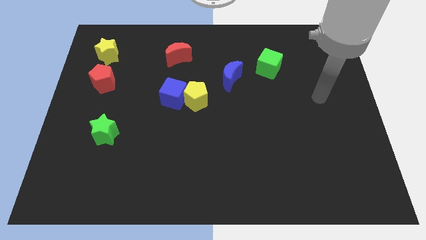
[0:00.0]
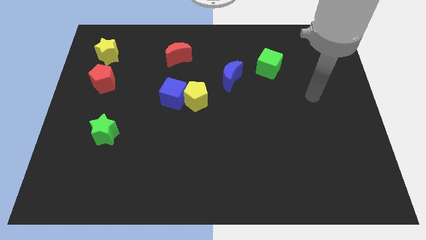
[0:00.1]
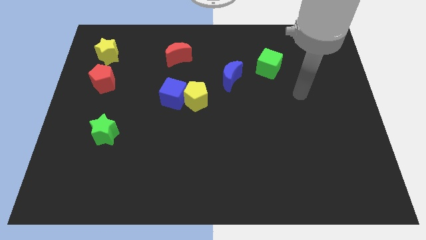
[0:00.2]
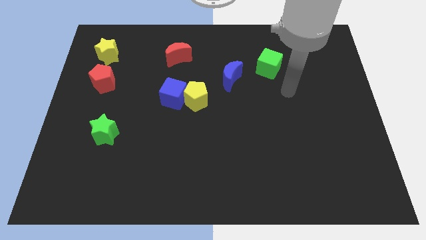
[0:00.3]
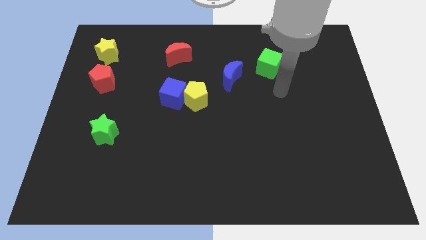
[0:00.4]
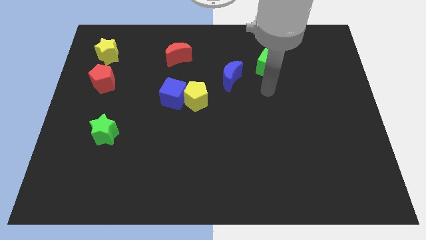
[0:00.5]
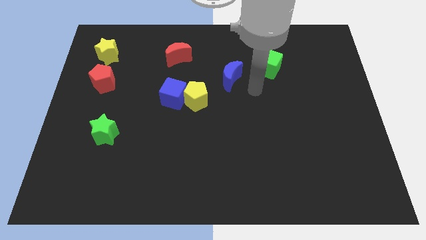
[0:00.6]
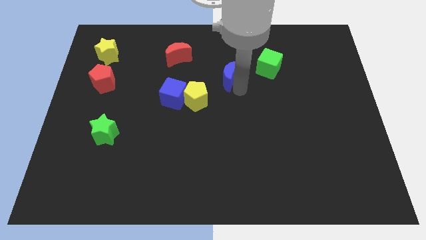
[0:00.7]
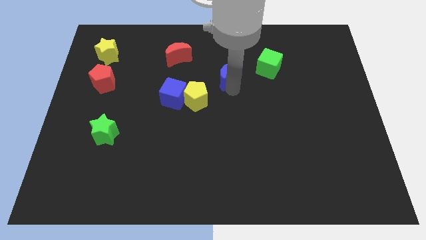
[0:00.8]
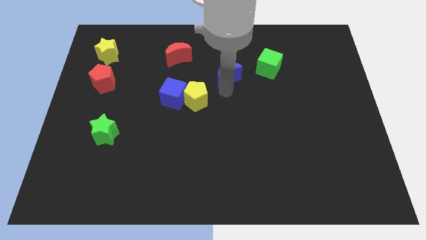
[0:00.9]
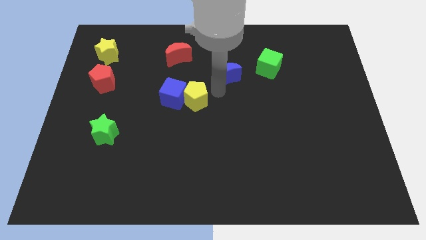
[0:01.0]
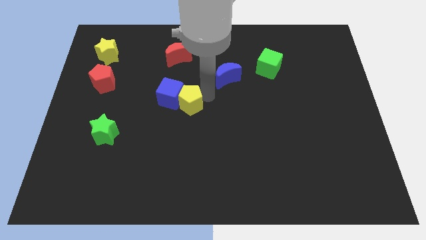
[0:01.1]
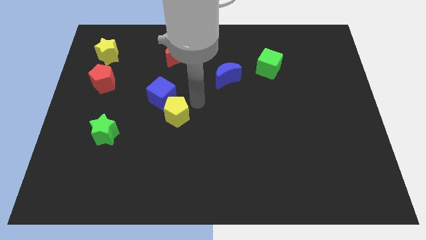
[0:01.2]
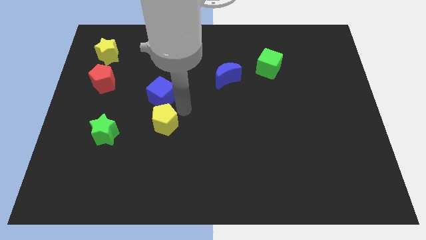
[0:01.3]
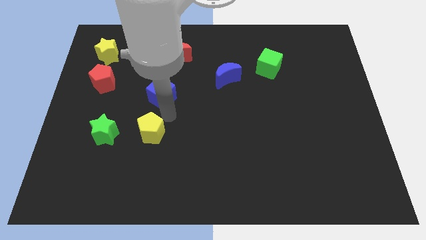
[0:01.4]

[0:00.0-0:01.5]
pull the blue cube apart from the yellow pentagon

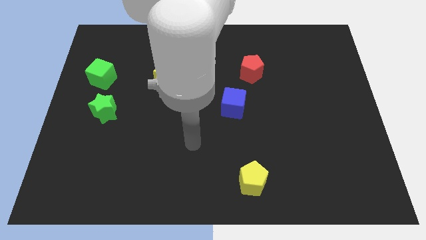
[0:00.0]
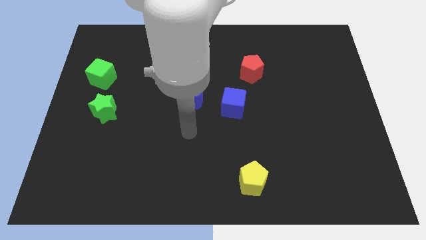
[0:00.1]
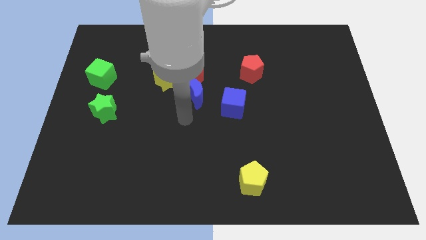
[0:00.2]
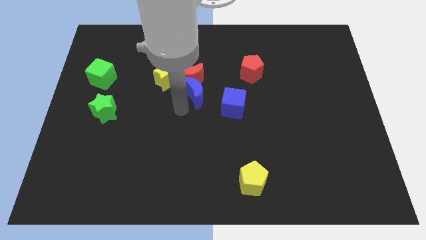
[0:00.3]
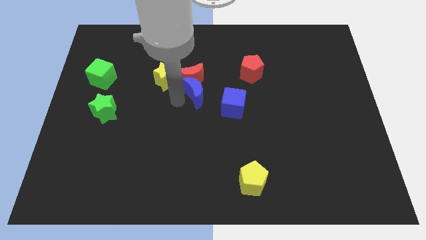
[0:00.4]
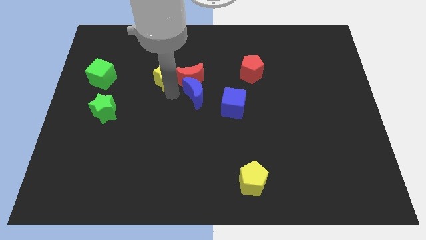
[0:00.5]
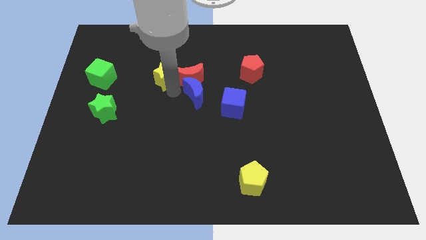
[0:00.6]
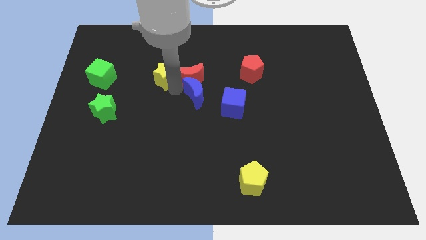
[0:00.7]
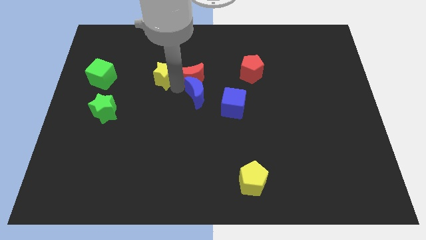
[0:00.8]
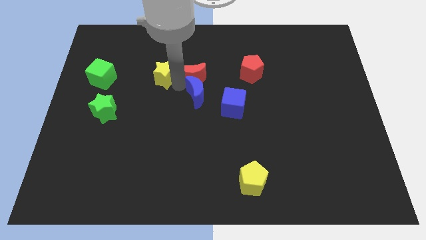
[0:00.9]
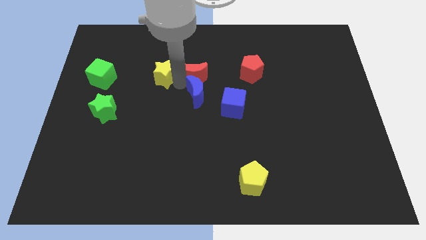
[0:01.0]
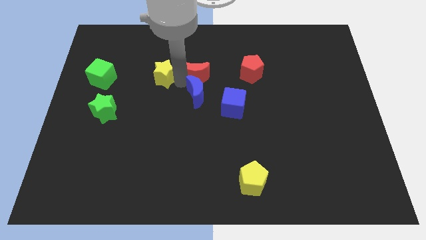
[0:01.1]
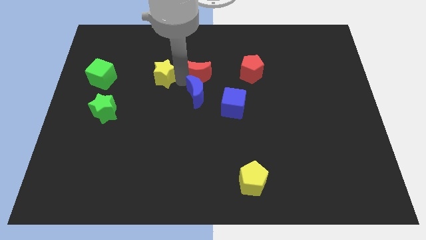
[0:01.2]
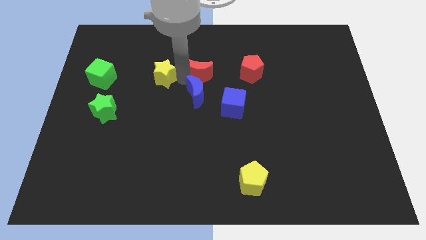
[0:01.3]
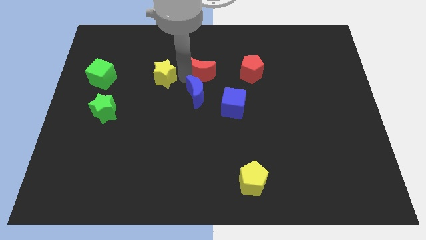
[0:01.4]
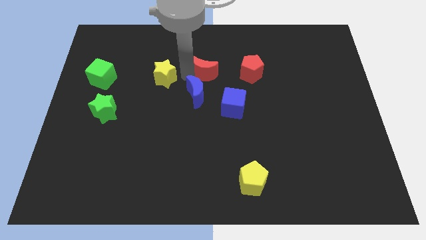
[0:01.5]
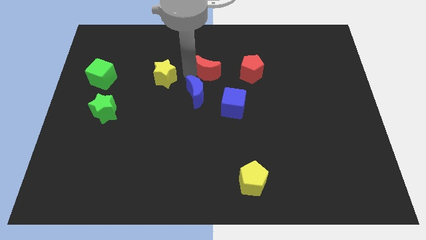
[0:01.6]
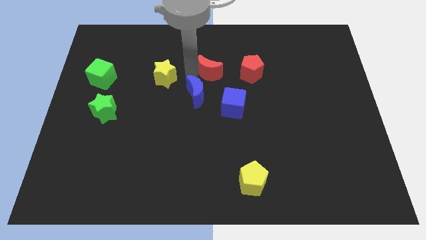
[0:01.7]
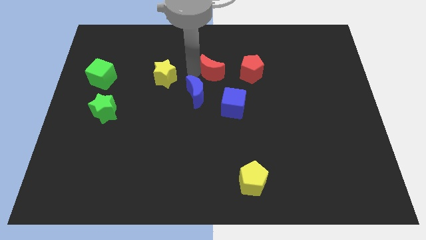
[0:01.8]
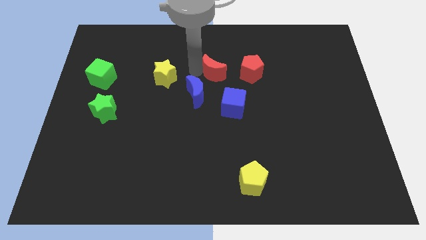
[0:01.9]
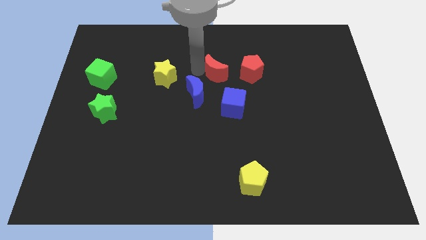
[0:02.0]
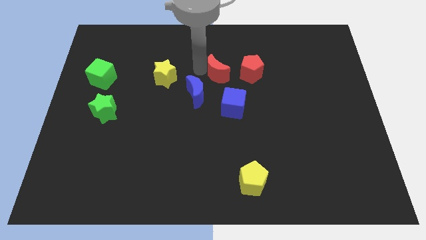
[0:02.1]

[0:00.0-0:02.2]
move the red moon away from the blue moon and yellow star

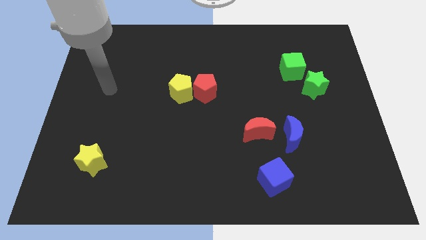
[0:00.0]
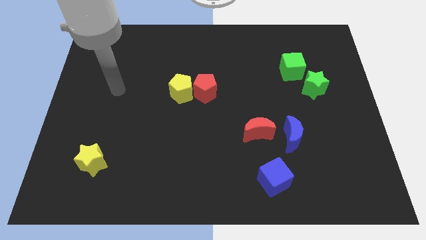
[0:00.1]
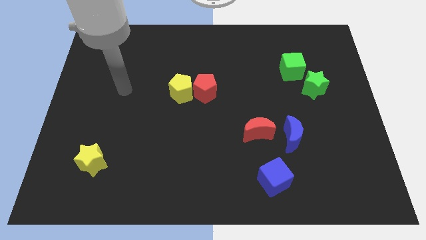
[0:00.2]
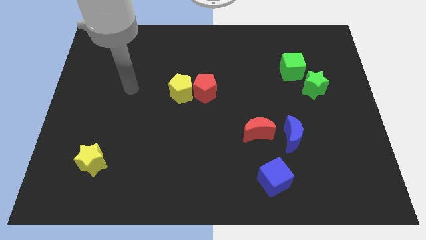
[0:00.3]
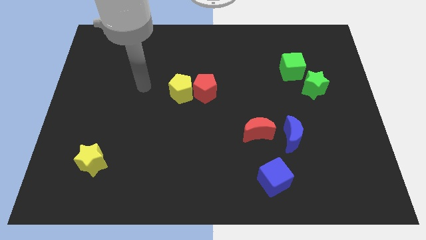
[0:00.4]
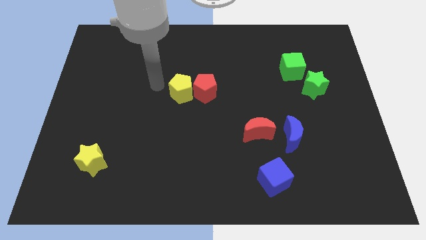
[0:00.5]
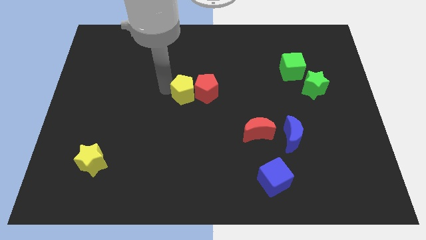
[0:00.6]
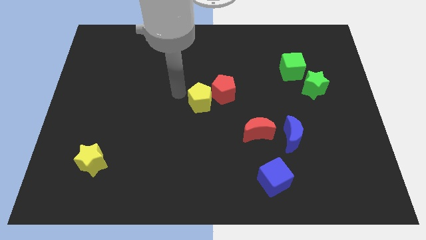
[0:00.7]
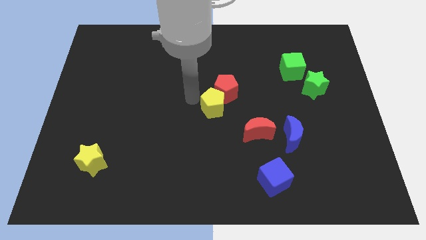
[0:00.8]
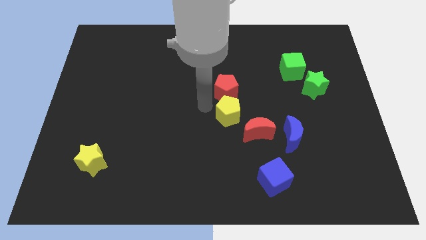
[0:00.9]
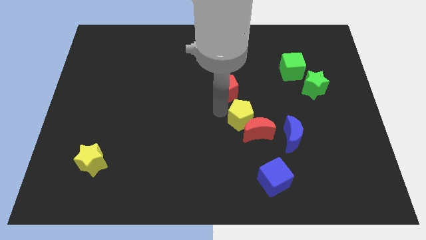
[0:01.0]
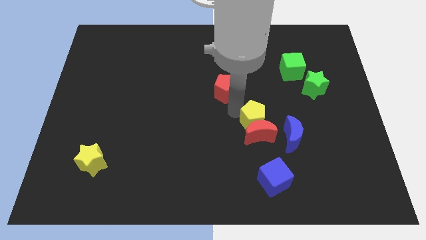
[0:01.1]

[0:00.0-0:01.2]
move the red pentagon away from the yellow pentagon

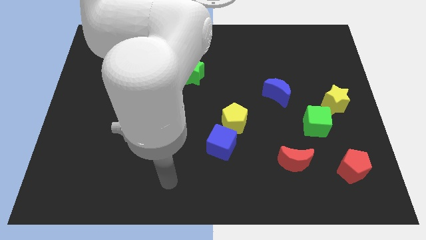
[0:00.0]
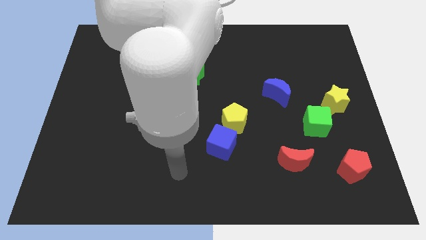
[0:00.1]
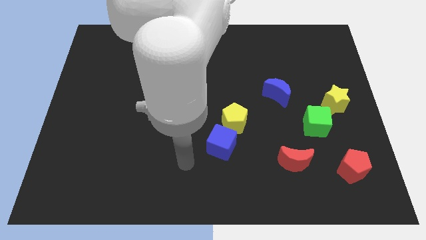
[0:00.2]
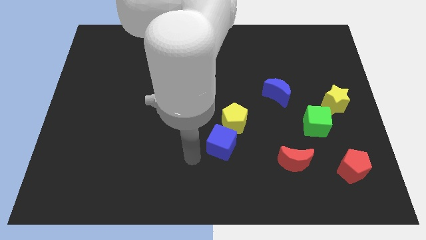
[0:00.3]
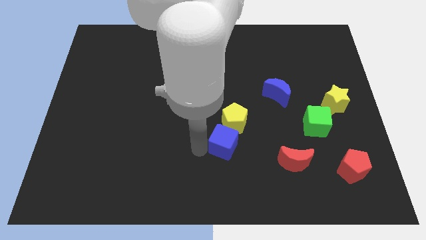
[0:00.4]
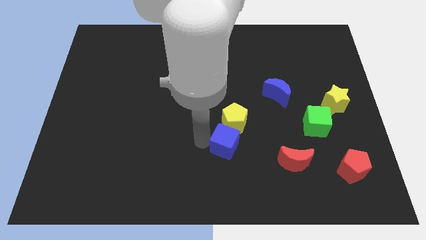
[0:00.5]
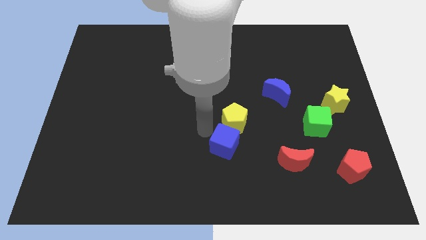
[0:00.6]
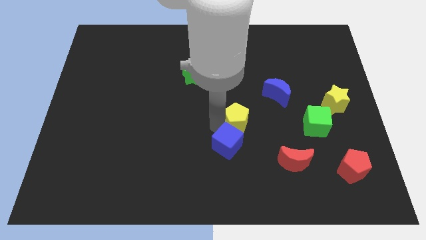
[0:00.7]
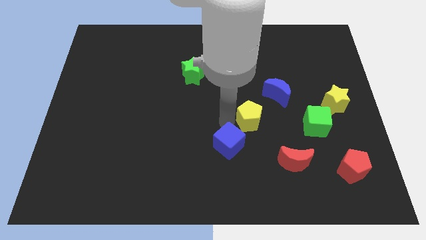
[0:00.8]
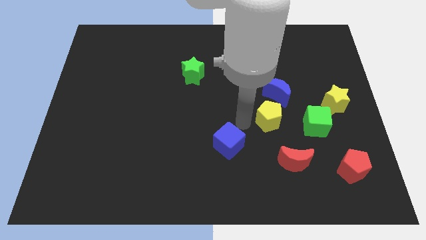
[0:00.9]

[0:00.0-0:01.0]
separate the blue cube from the yellow pentagon

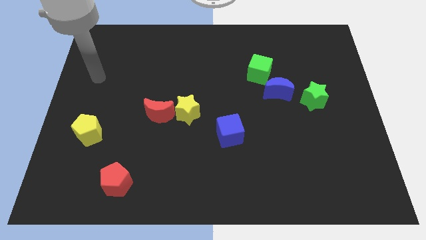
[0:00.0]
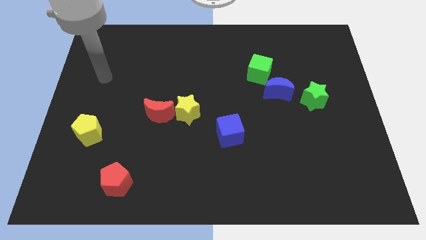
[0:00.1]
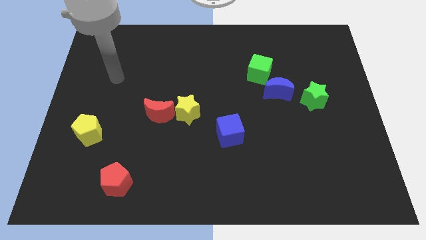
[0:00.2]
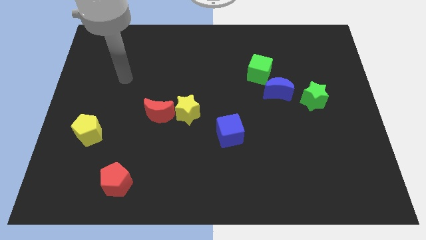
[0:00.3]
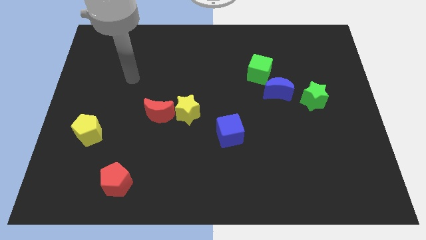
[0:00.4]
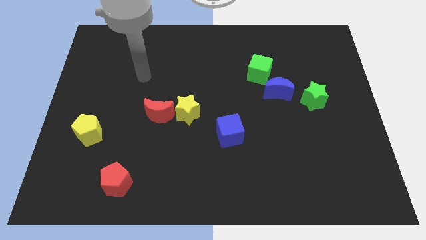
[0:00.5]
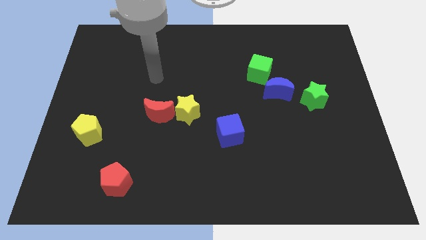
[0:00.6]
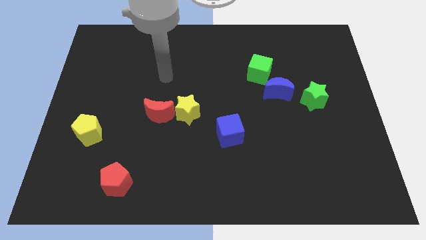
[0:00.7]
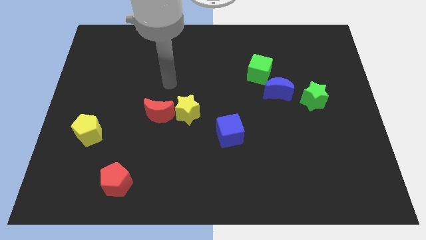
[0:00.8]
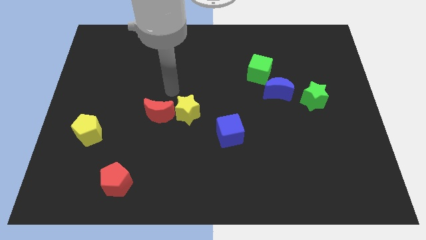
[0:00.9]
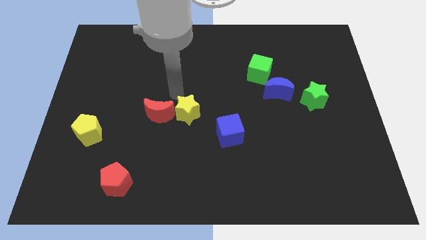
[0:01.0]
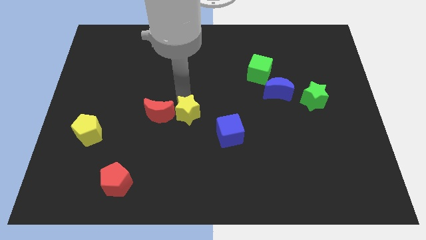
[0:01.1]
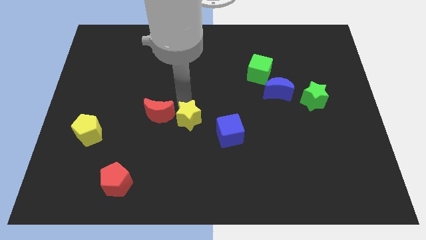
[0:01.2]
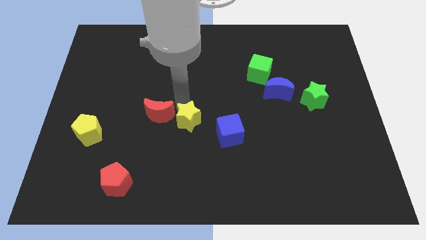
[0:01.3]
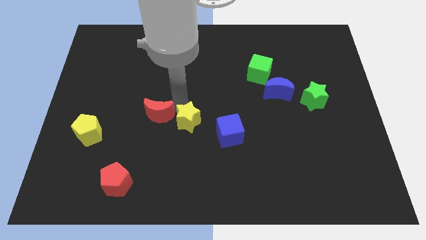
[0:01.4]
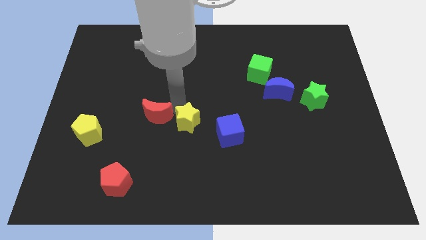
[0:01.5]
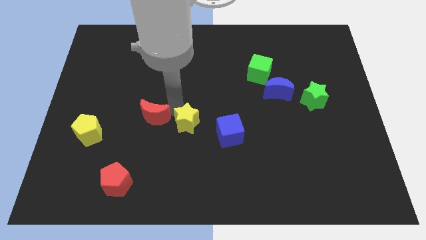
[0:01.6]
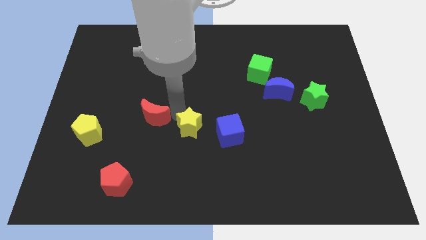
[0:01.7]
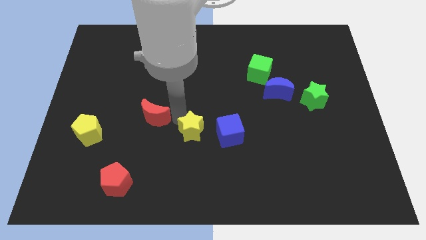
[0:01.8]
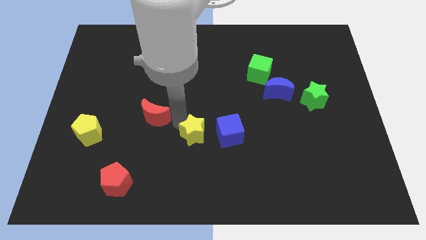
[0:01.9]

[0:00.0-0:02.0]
separate the red moon from the yellow star

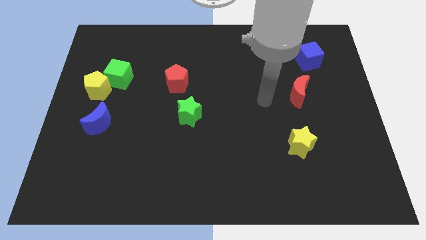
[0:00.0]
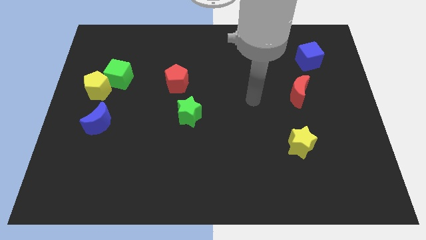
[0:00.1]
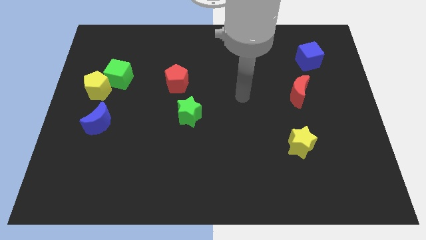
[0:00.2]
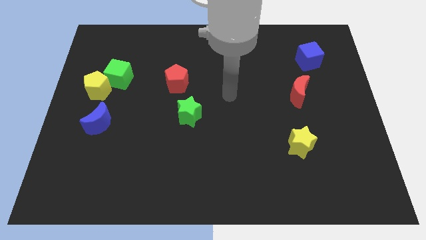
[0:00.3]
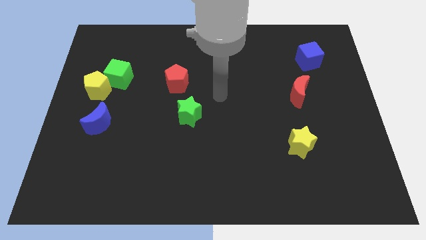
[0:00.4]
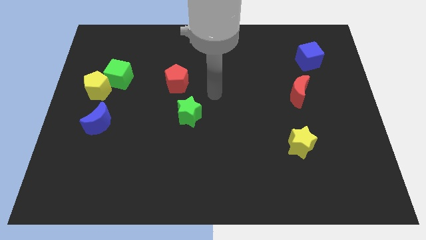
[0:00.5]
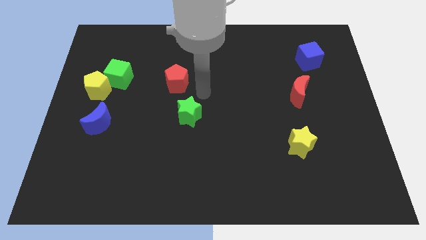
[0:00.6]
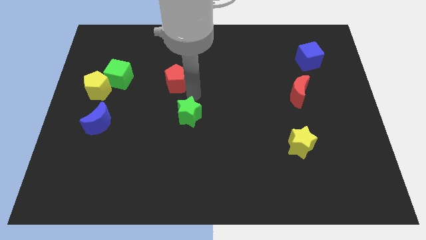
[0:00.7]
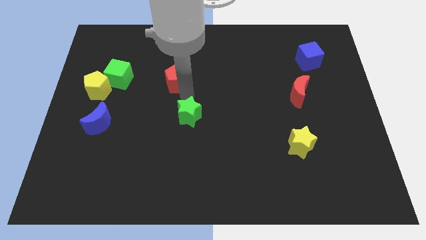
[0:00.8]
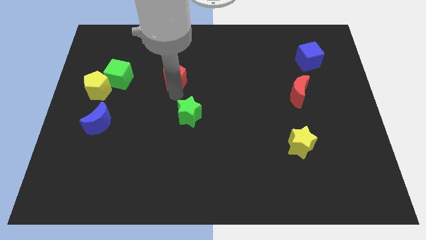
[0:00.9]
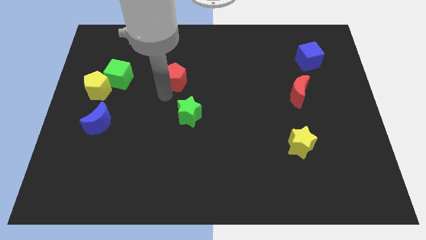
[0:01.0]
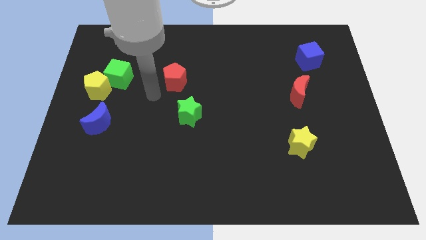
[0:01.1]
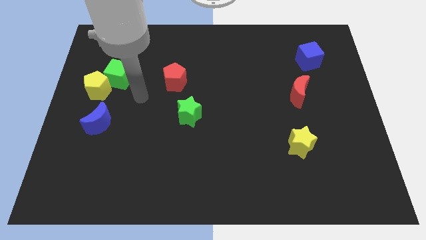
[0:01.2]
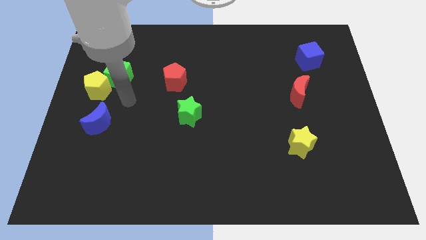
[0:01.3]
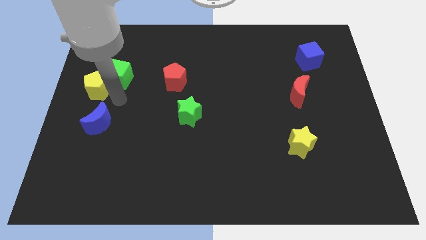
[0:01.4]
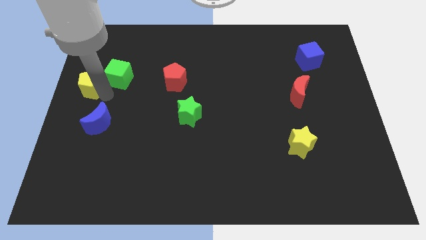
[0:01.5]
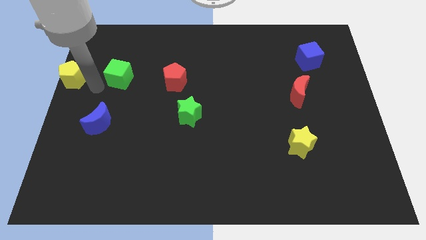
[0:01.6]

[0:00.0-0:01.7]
separate the green cube from the yellow pentagon
